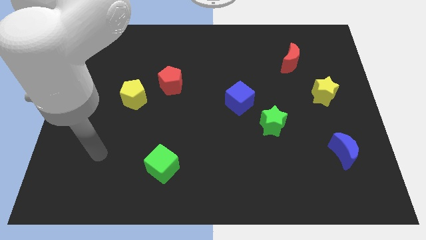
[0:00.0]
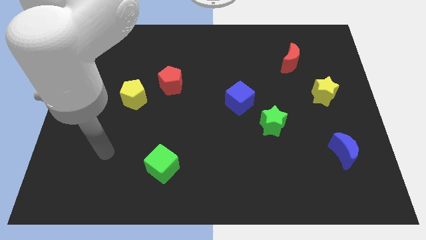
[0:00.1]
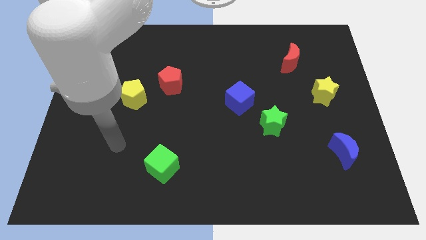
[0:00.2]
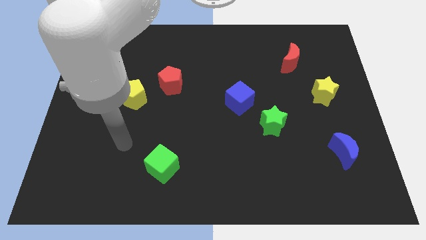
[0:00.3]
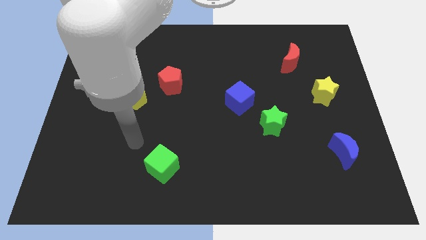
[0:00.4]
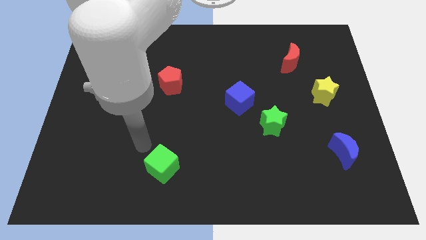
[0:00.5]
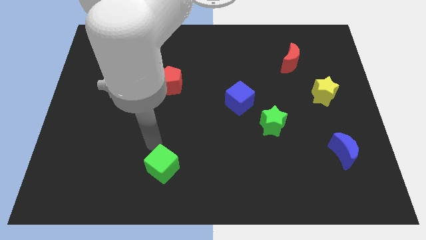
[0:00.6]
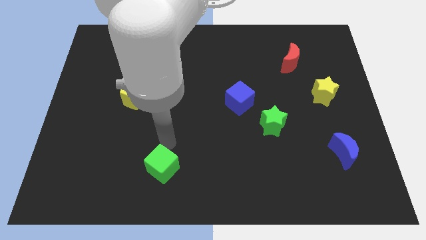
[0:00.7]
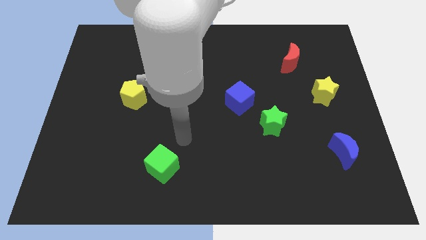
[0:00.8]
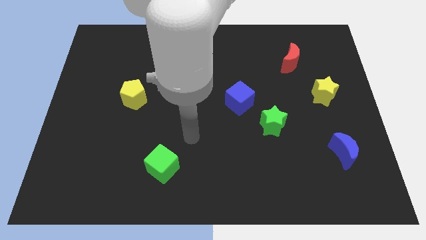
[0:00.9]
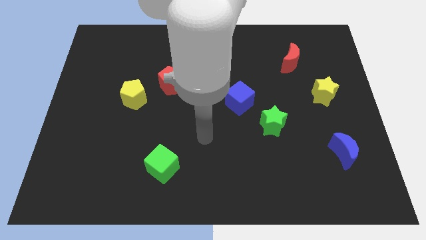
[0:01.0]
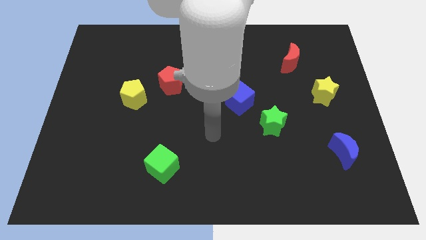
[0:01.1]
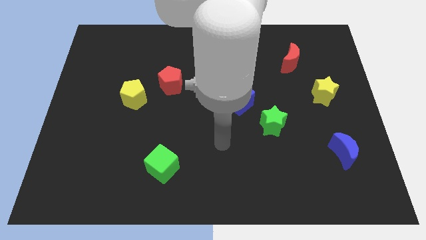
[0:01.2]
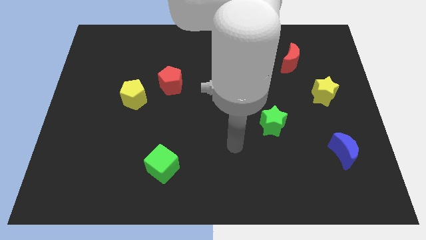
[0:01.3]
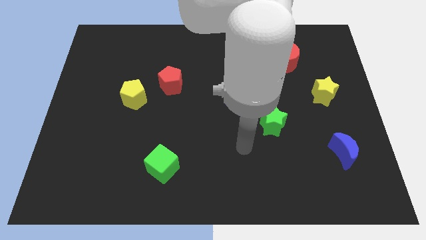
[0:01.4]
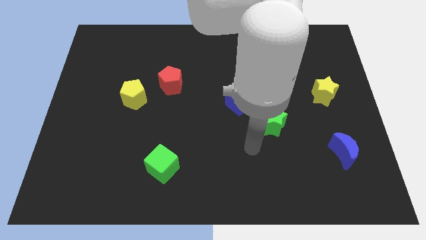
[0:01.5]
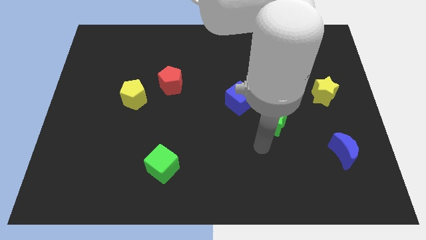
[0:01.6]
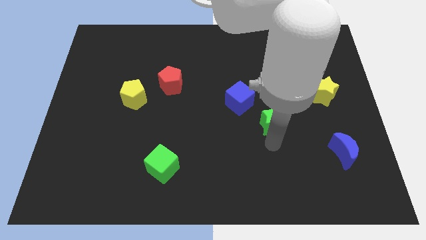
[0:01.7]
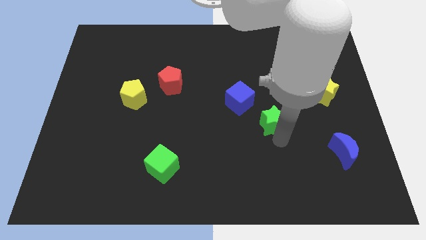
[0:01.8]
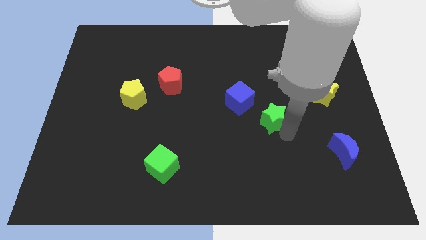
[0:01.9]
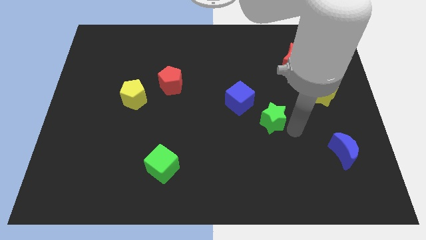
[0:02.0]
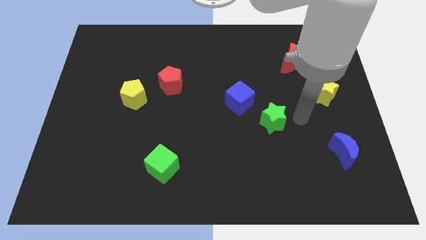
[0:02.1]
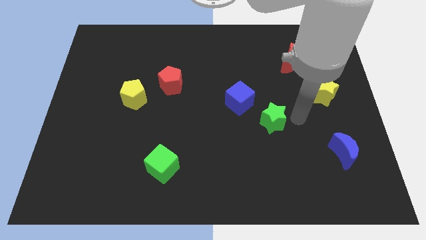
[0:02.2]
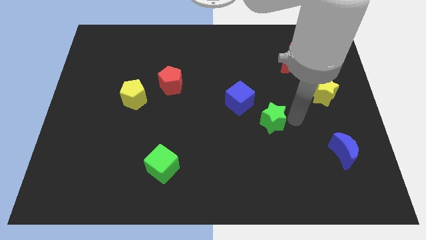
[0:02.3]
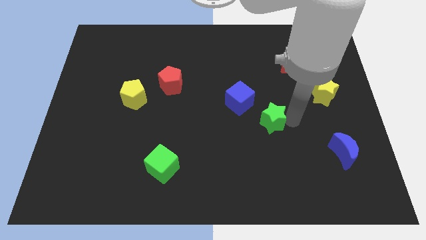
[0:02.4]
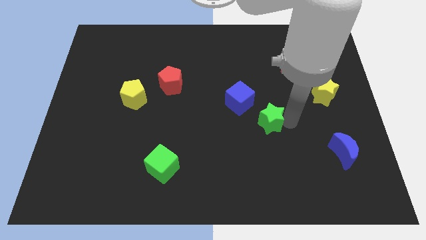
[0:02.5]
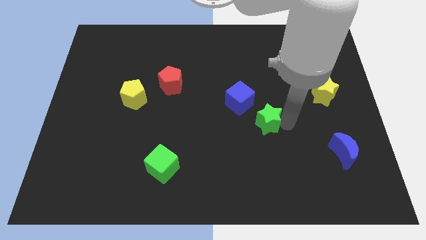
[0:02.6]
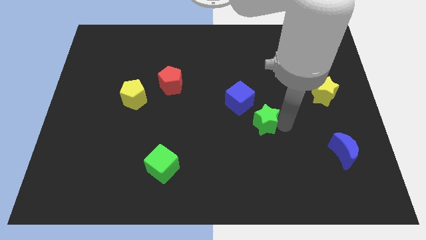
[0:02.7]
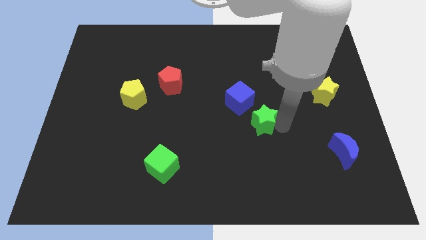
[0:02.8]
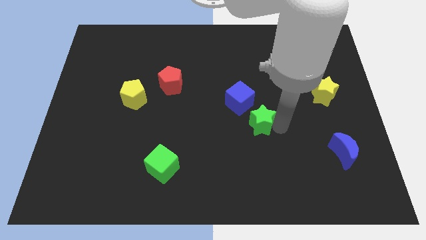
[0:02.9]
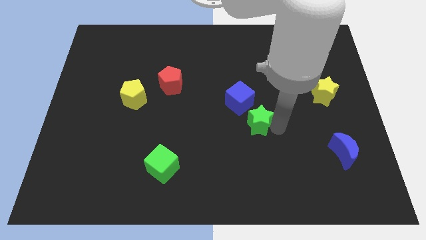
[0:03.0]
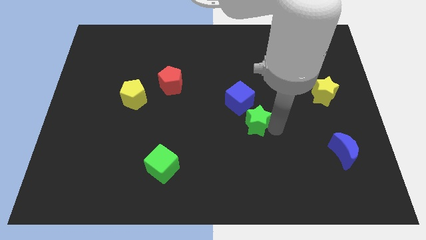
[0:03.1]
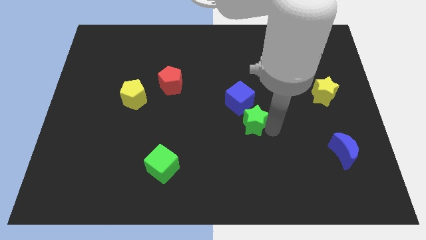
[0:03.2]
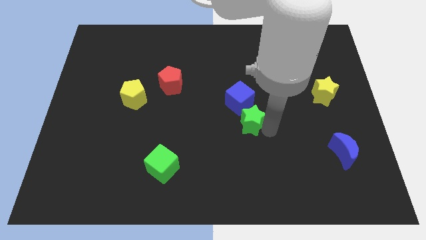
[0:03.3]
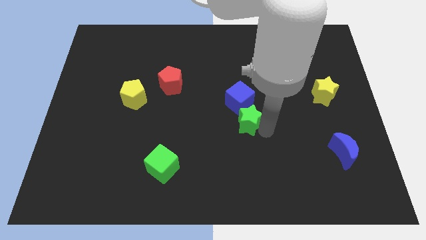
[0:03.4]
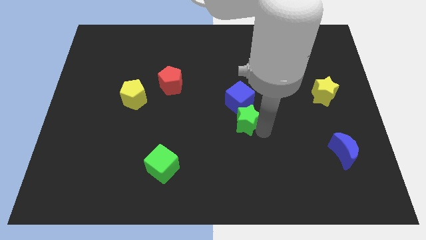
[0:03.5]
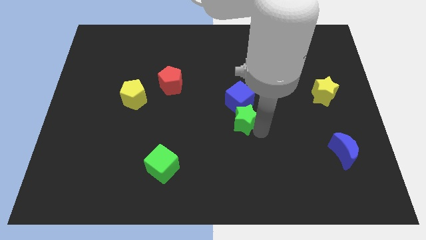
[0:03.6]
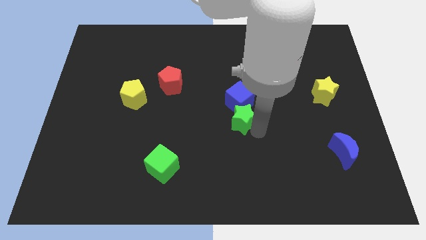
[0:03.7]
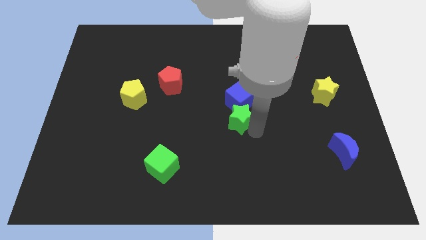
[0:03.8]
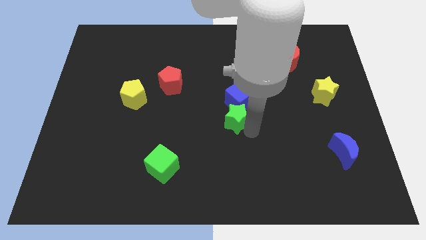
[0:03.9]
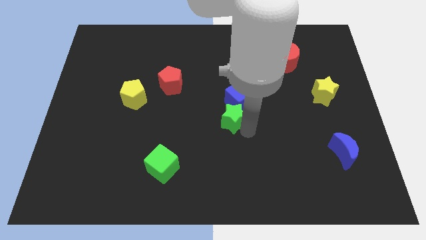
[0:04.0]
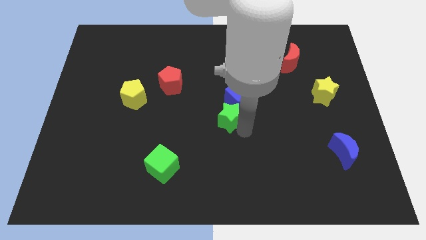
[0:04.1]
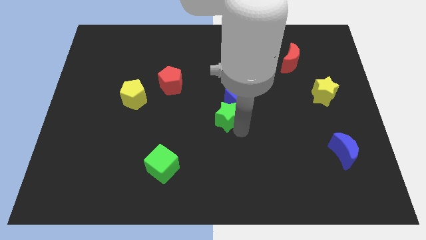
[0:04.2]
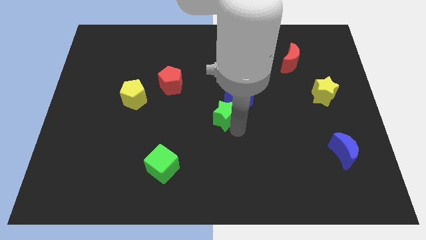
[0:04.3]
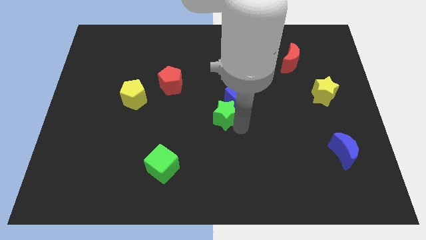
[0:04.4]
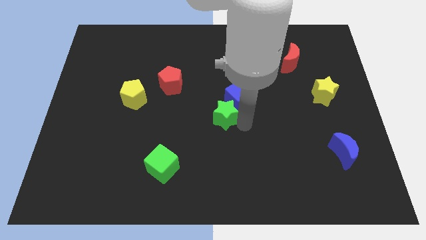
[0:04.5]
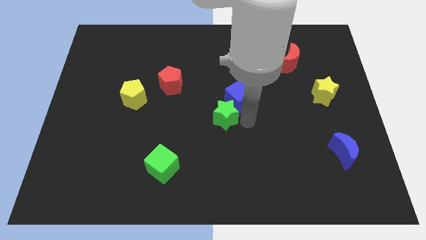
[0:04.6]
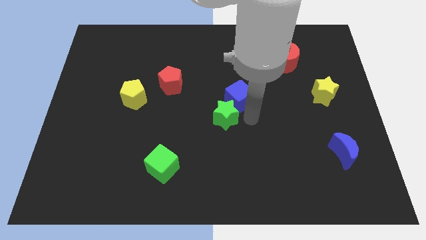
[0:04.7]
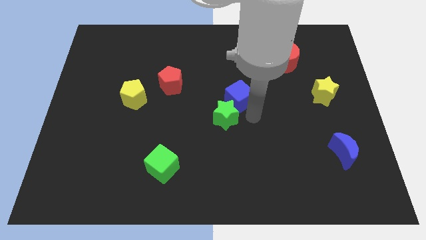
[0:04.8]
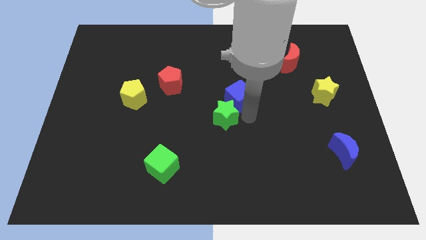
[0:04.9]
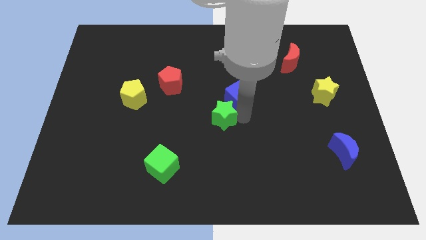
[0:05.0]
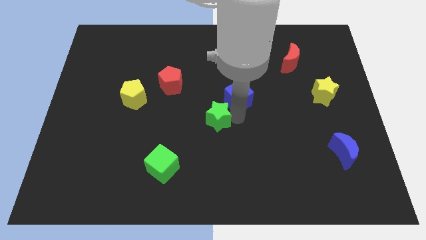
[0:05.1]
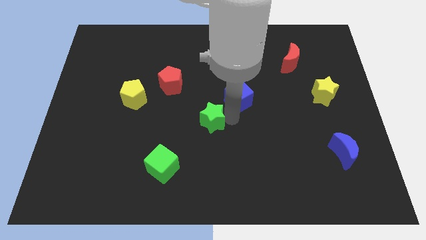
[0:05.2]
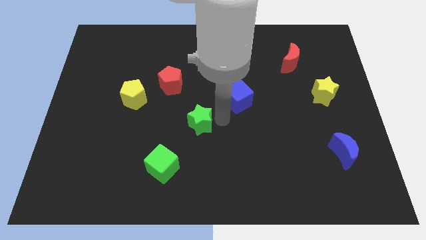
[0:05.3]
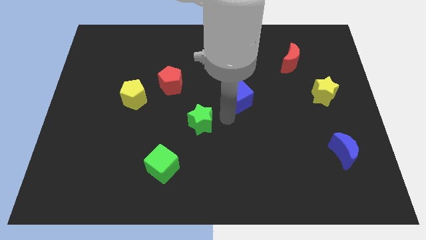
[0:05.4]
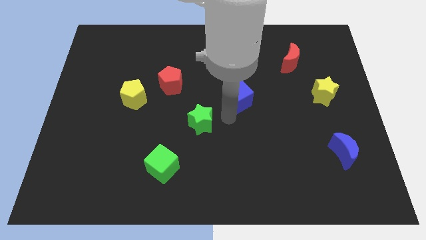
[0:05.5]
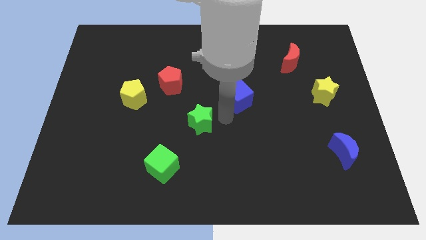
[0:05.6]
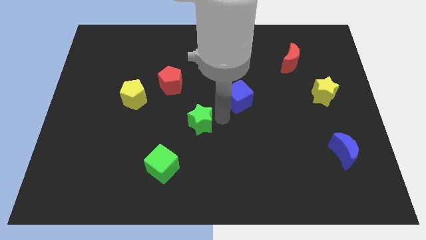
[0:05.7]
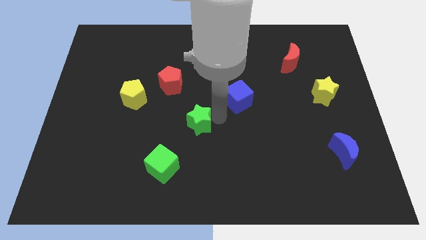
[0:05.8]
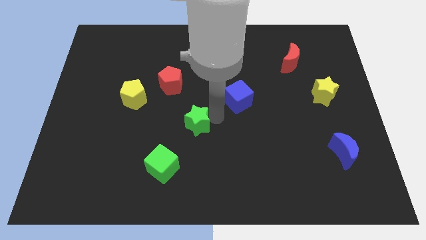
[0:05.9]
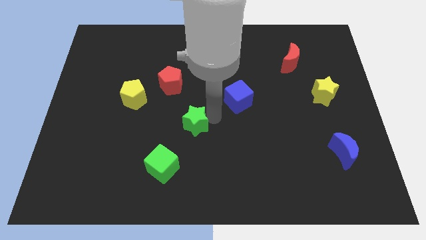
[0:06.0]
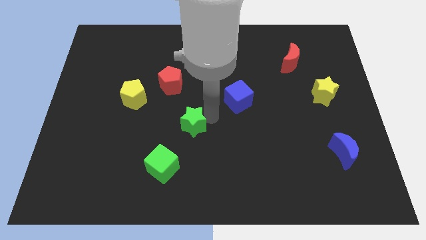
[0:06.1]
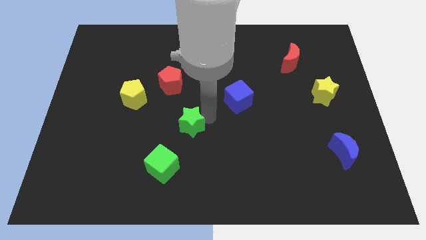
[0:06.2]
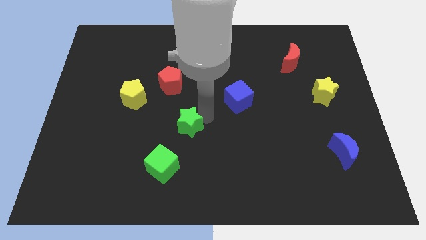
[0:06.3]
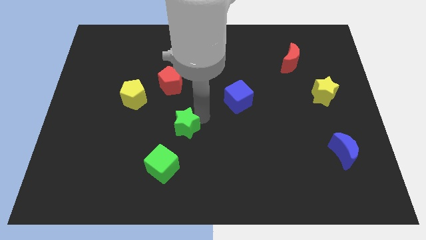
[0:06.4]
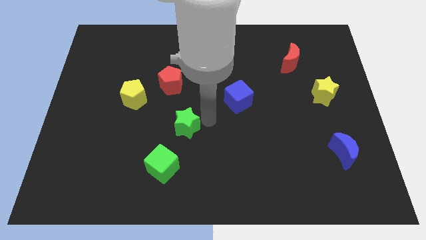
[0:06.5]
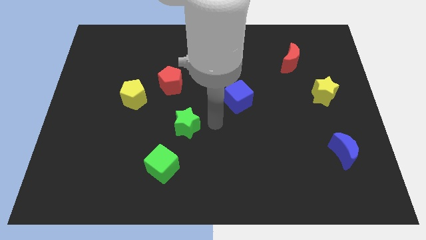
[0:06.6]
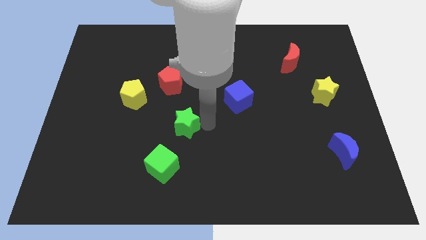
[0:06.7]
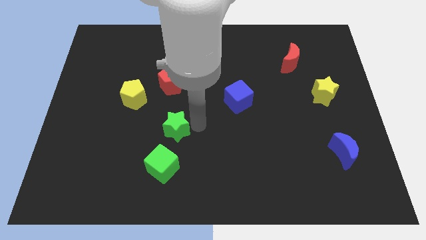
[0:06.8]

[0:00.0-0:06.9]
move the green star left

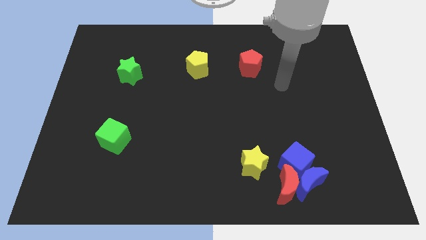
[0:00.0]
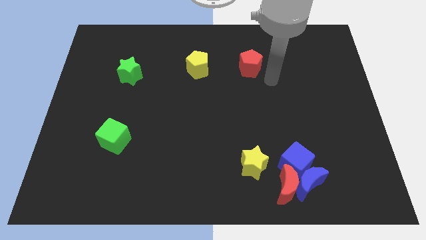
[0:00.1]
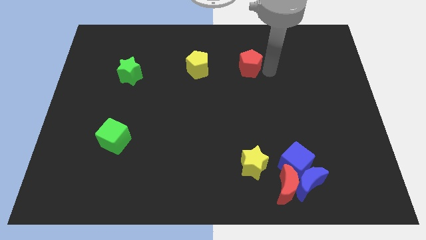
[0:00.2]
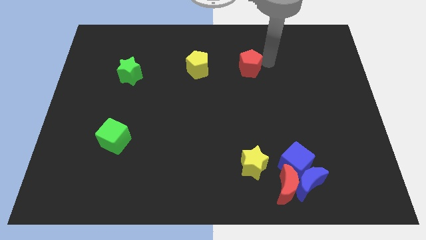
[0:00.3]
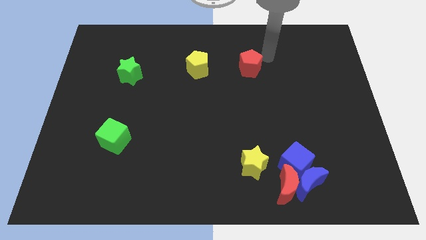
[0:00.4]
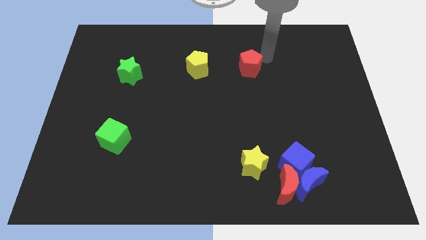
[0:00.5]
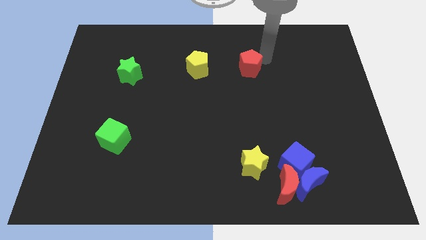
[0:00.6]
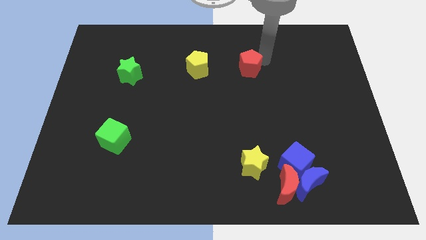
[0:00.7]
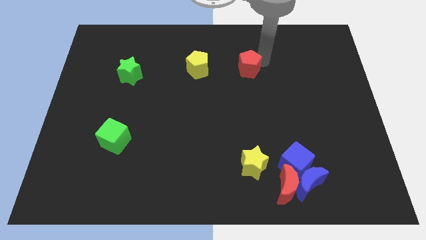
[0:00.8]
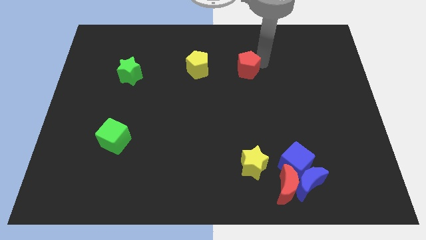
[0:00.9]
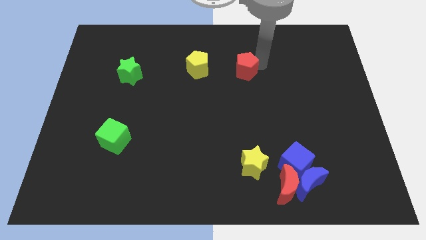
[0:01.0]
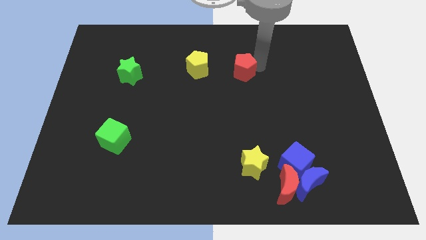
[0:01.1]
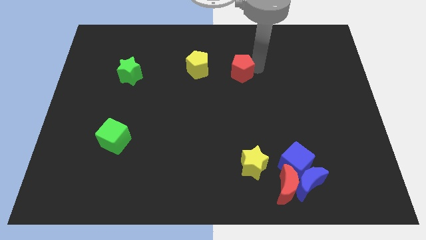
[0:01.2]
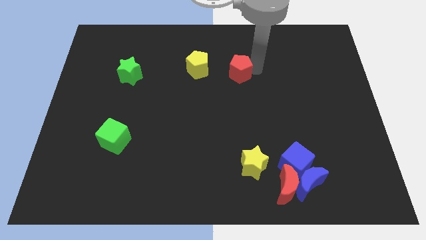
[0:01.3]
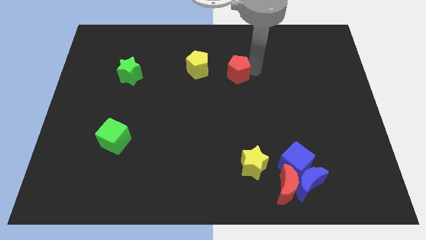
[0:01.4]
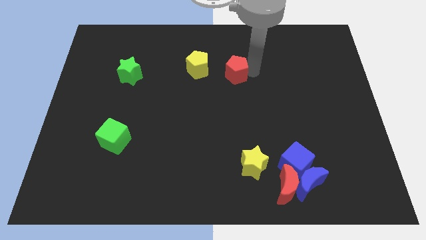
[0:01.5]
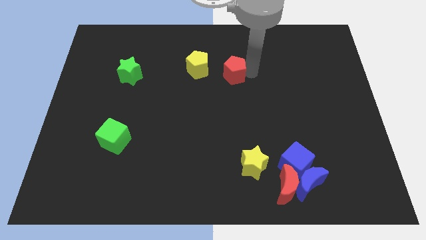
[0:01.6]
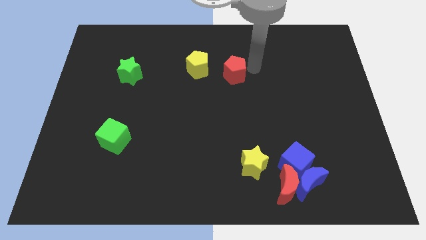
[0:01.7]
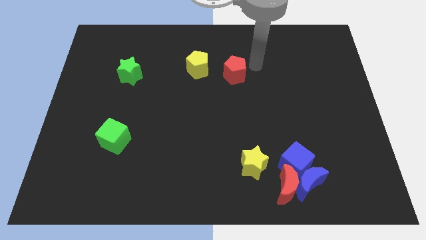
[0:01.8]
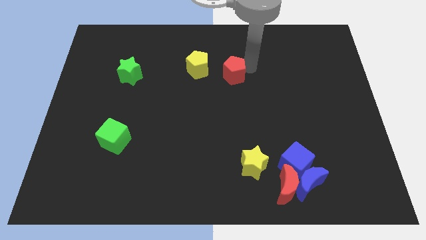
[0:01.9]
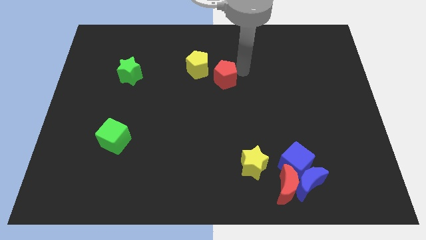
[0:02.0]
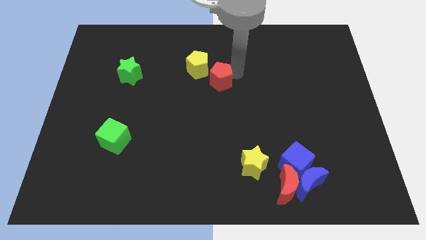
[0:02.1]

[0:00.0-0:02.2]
slightly push the red pentagon to the left
